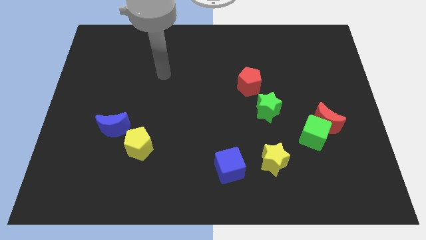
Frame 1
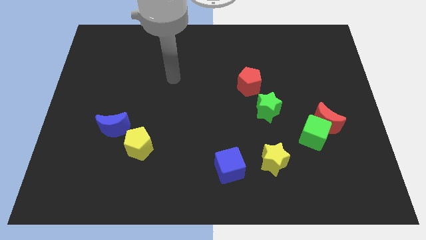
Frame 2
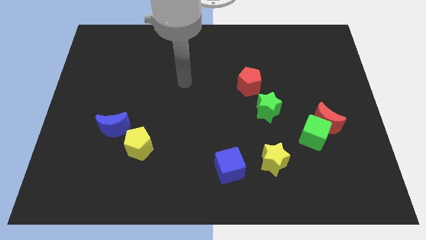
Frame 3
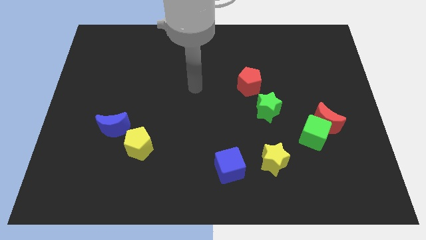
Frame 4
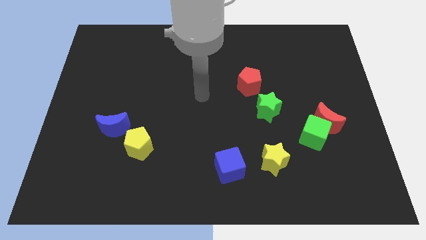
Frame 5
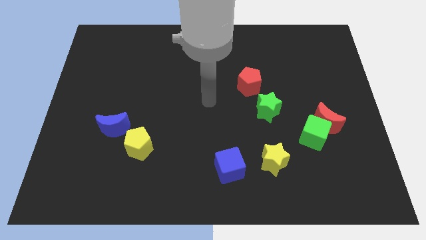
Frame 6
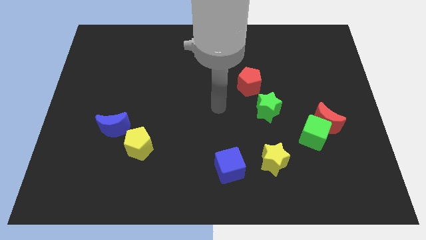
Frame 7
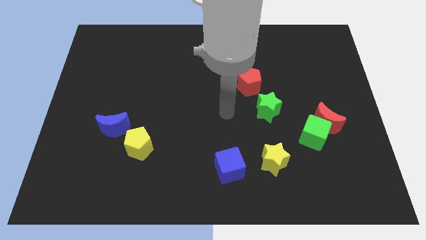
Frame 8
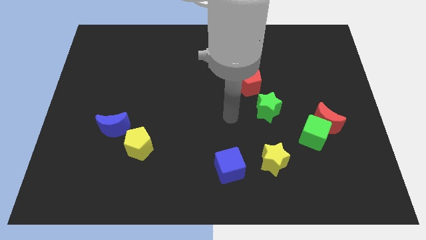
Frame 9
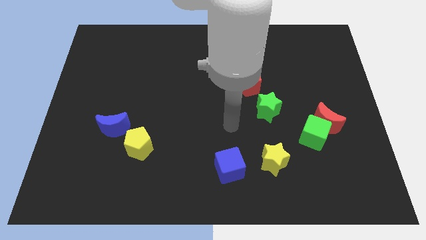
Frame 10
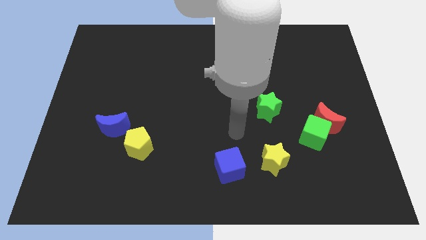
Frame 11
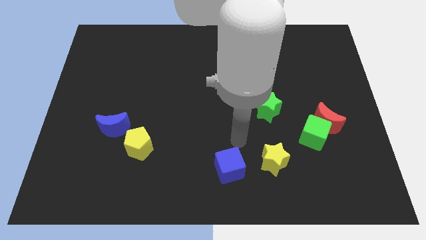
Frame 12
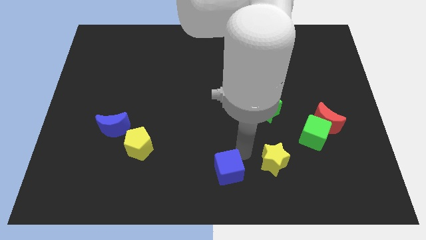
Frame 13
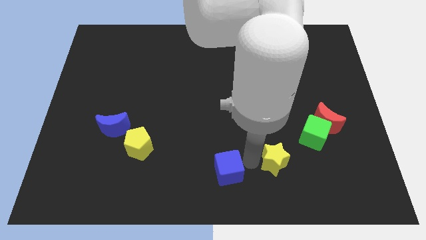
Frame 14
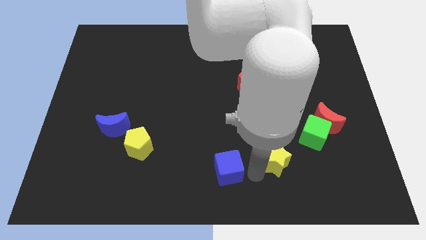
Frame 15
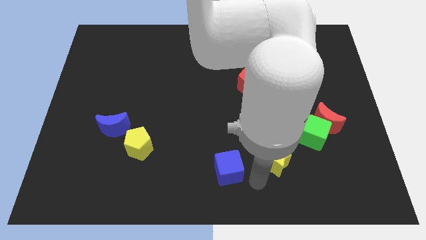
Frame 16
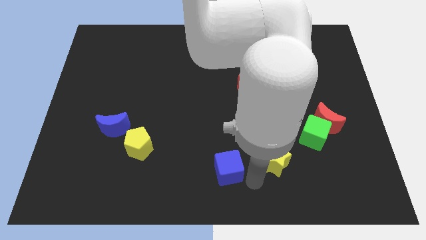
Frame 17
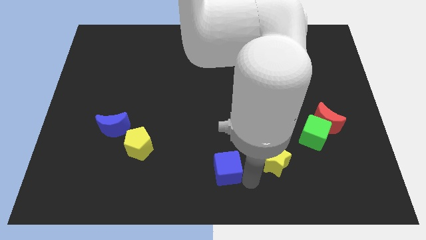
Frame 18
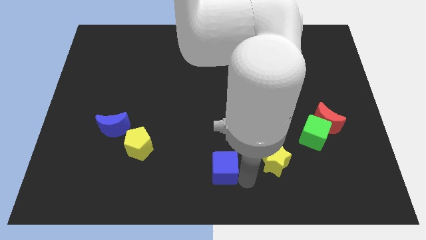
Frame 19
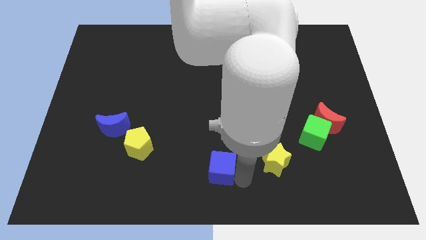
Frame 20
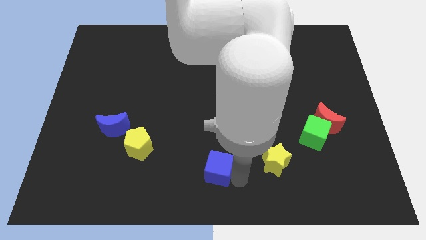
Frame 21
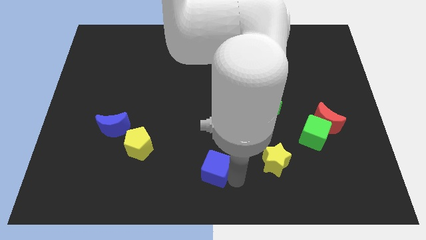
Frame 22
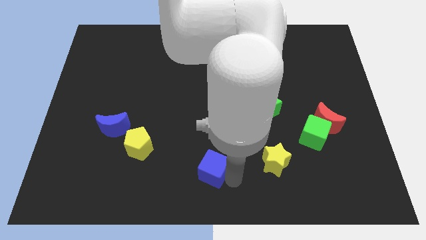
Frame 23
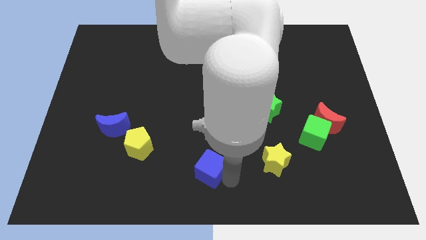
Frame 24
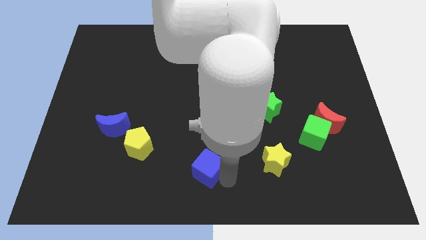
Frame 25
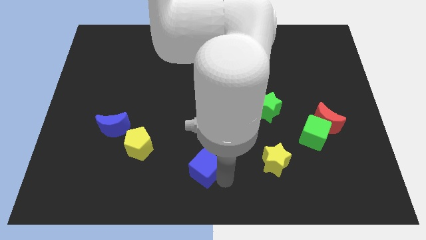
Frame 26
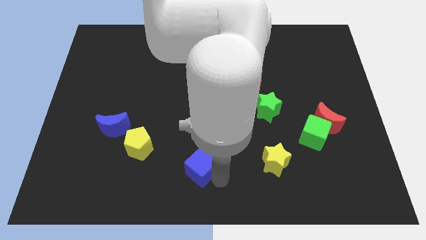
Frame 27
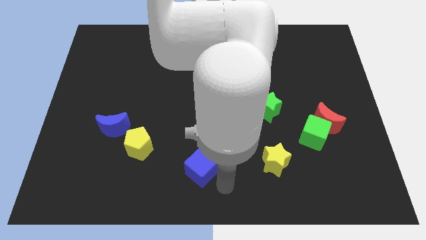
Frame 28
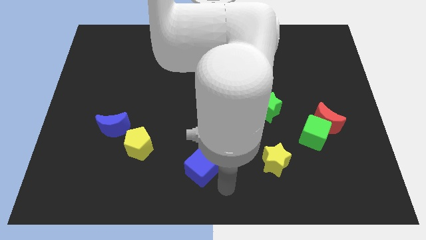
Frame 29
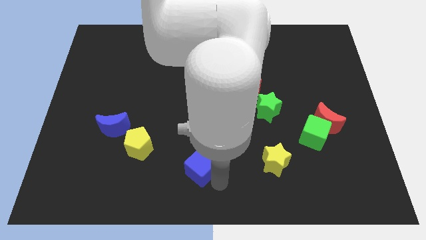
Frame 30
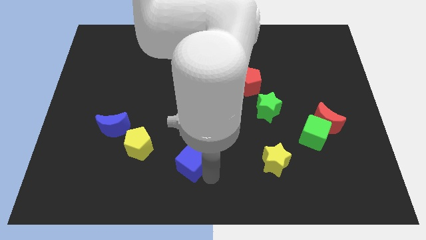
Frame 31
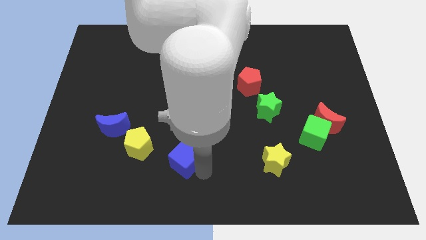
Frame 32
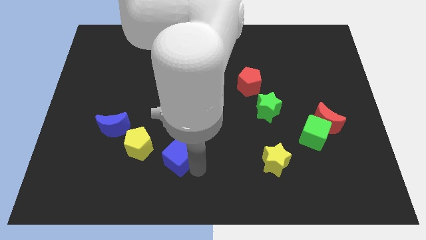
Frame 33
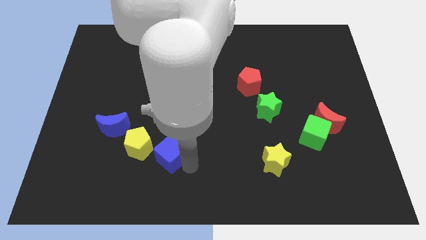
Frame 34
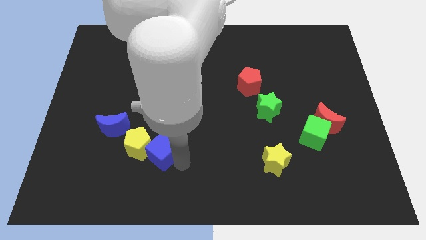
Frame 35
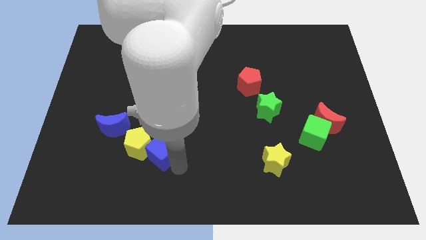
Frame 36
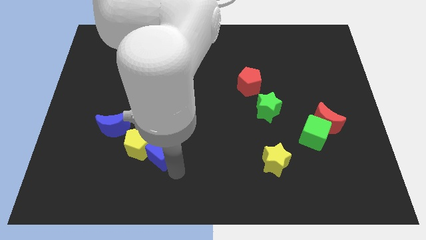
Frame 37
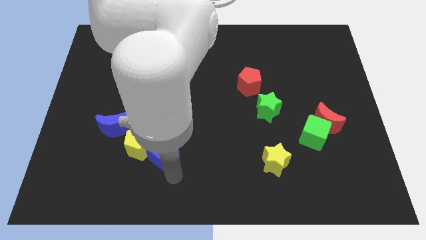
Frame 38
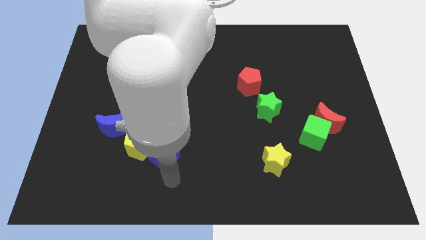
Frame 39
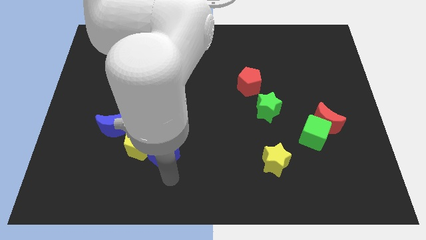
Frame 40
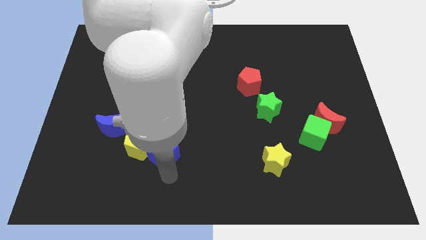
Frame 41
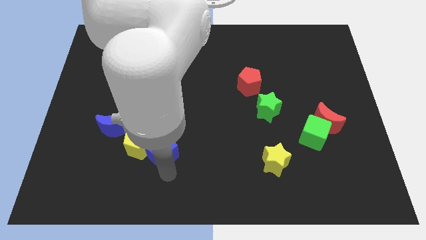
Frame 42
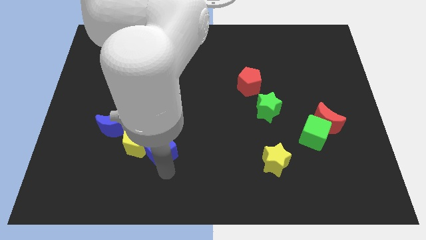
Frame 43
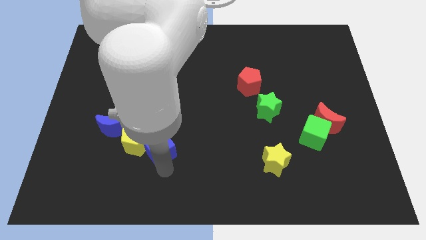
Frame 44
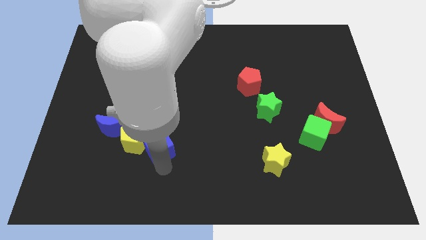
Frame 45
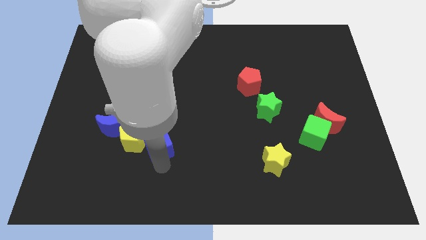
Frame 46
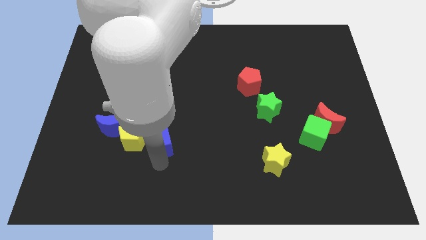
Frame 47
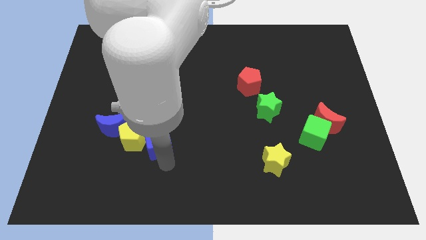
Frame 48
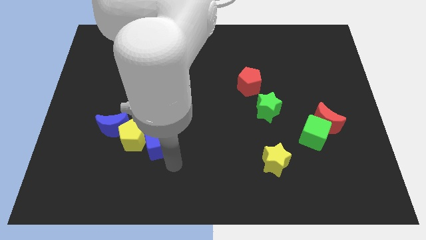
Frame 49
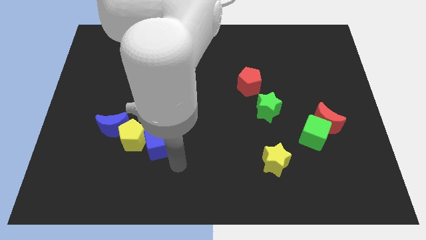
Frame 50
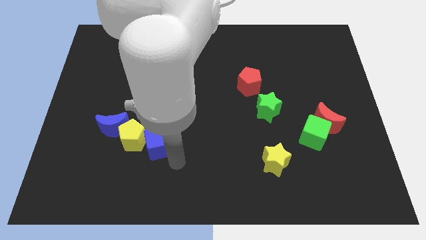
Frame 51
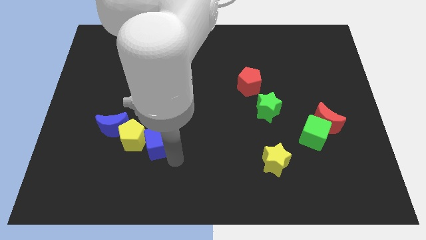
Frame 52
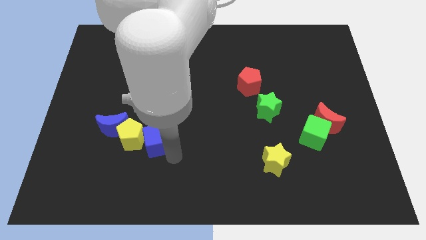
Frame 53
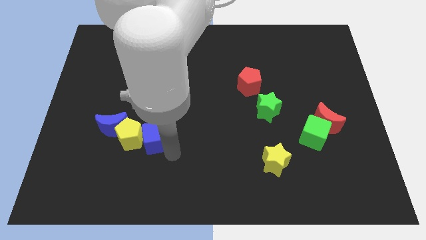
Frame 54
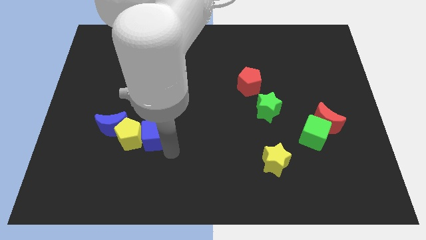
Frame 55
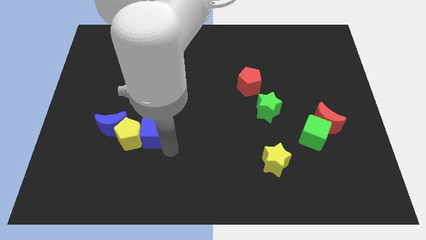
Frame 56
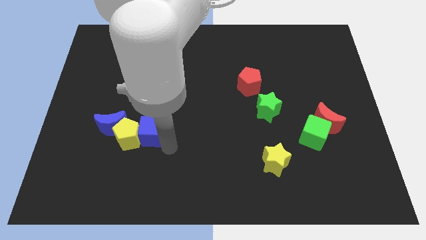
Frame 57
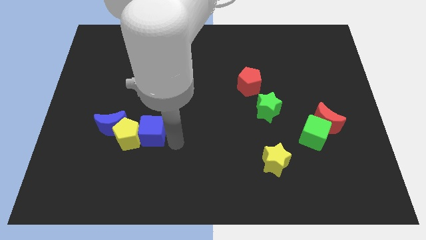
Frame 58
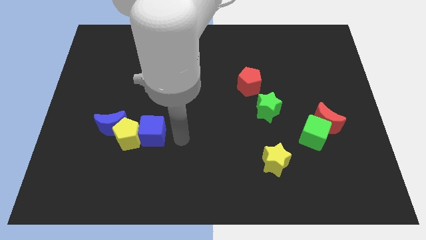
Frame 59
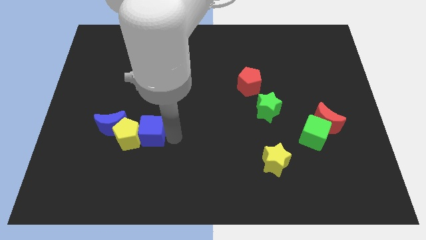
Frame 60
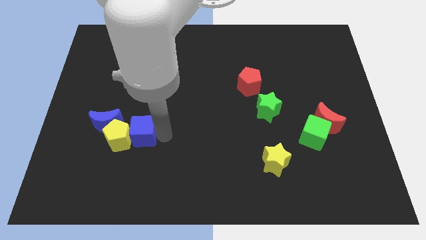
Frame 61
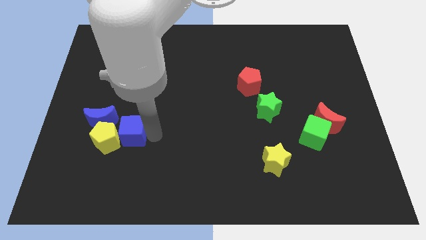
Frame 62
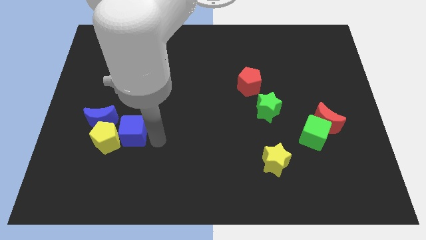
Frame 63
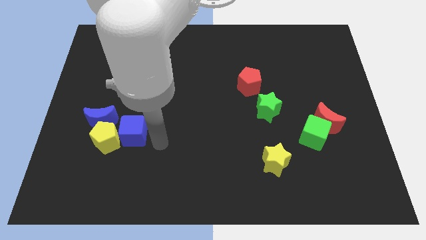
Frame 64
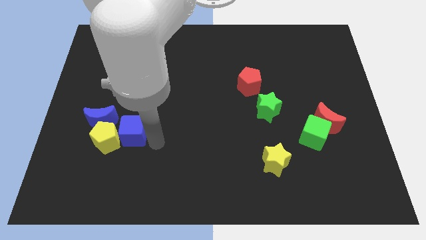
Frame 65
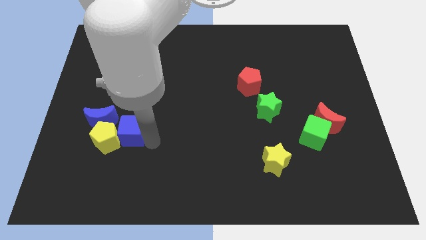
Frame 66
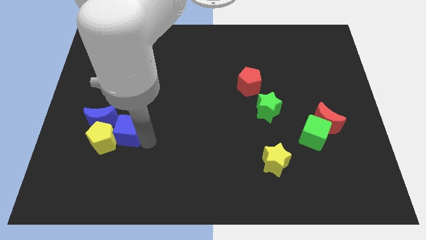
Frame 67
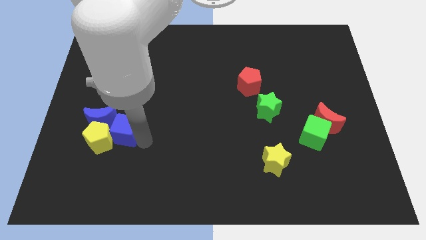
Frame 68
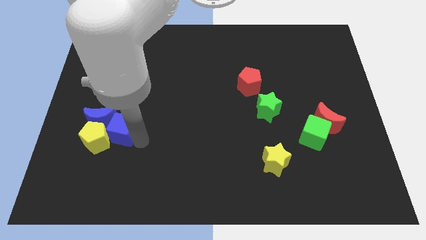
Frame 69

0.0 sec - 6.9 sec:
put the blue cube to the blue moon

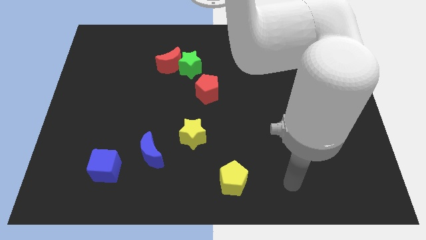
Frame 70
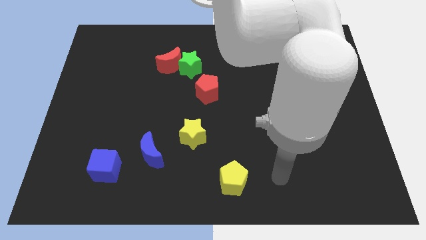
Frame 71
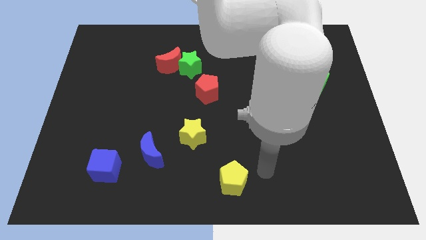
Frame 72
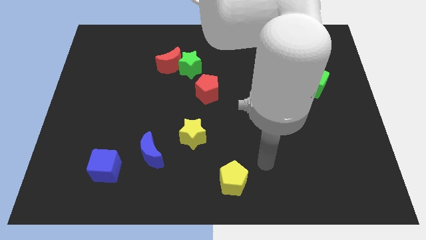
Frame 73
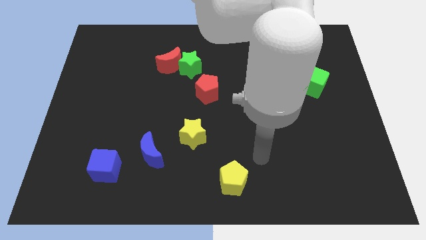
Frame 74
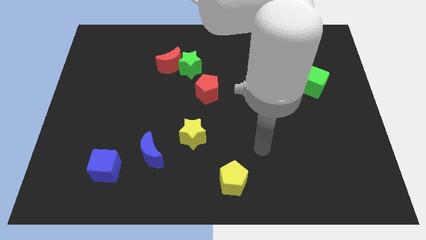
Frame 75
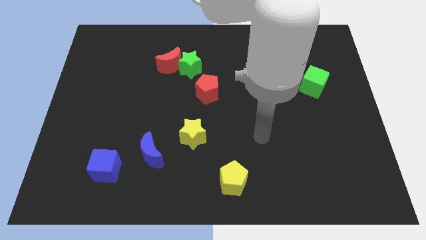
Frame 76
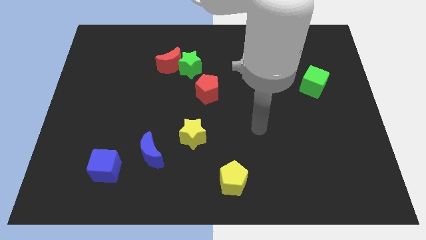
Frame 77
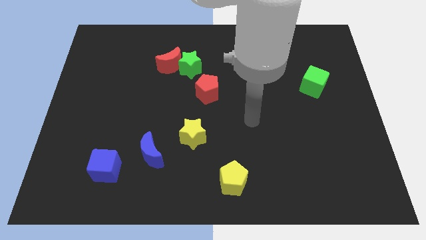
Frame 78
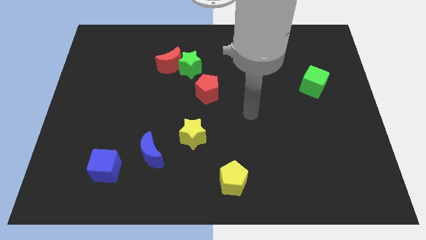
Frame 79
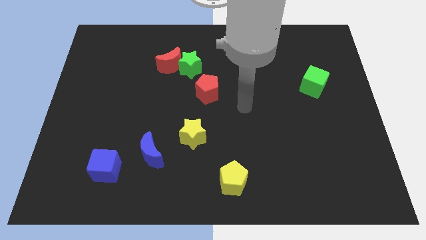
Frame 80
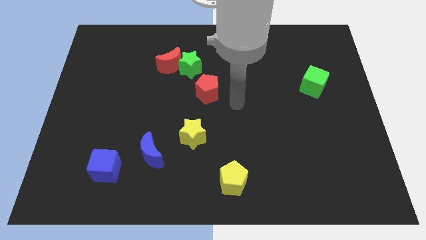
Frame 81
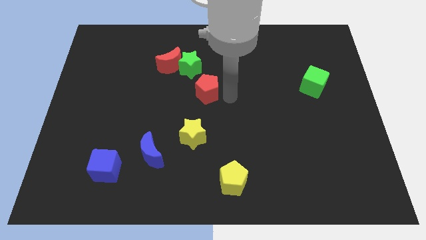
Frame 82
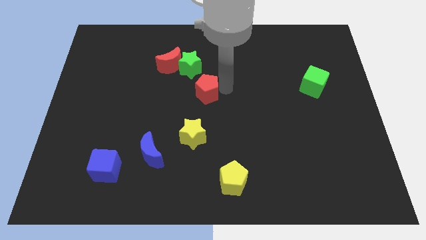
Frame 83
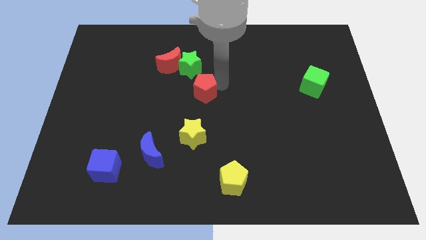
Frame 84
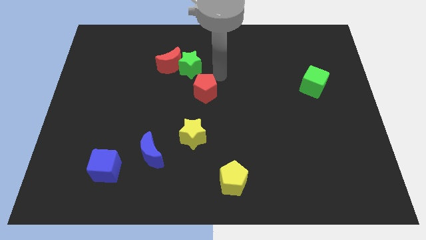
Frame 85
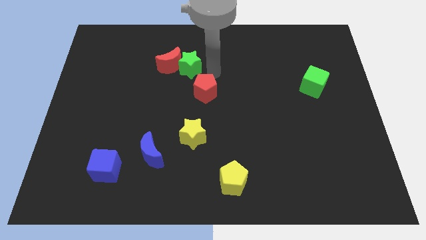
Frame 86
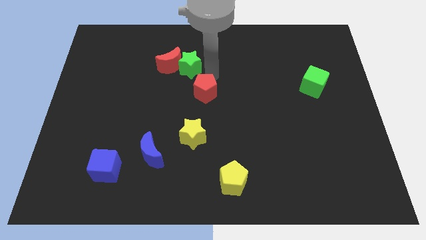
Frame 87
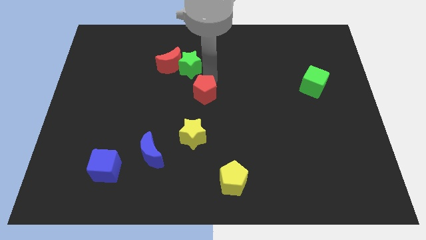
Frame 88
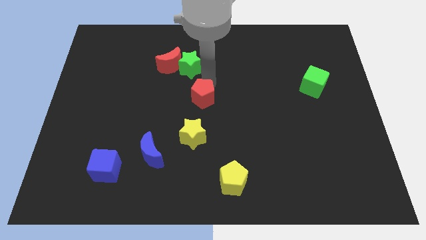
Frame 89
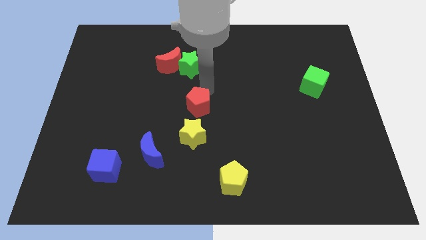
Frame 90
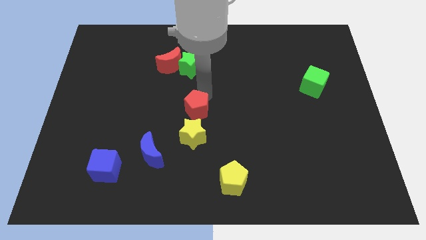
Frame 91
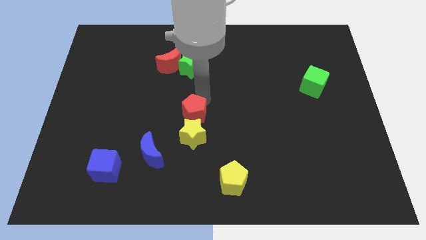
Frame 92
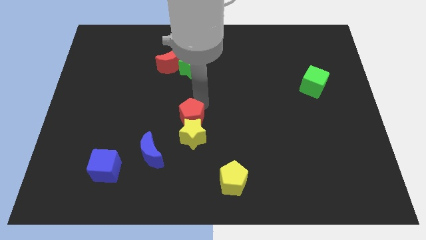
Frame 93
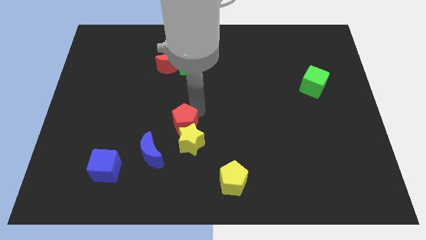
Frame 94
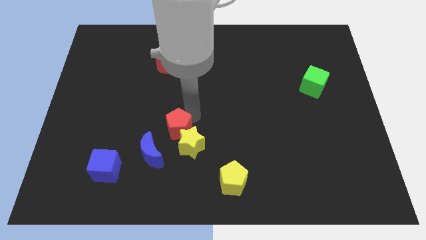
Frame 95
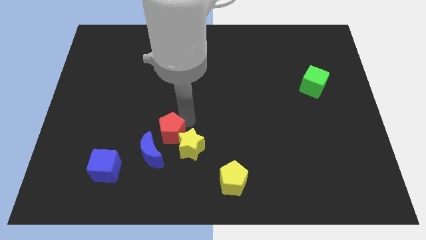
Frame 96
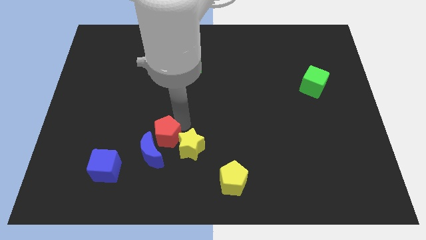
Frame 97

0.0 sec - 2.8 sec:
move the red pentagon to the blue moon
